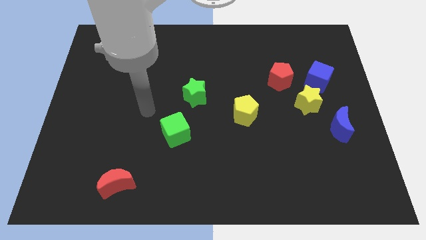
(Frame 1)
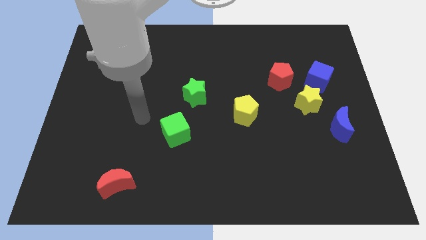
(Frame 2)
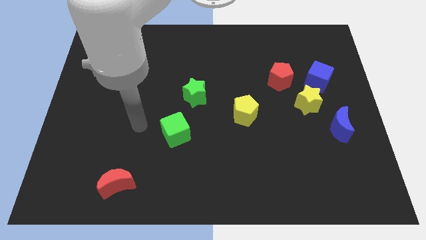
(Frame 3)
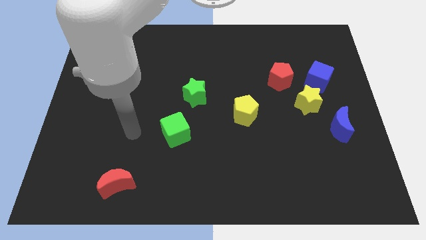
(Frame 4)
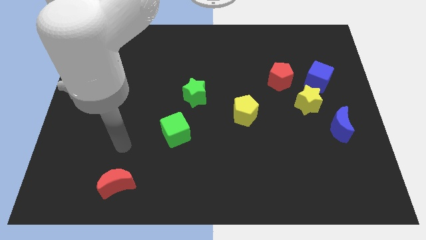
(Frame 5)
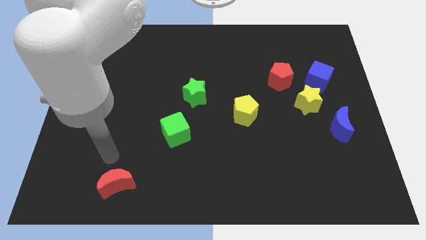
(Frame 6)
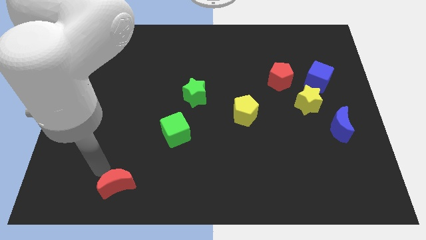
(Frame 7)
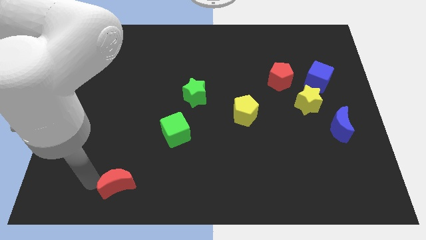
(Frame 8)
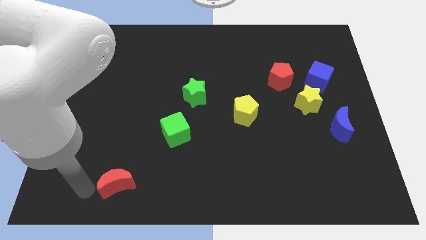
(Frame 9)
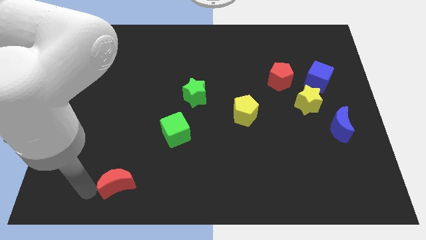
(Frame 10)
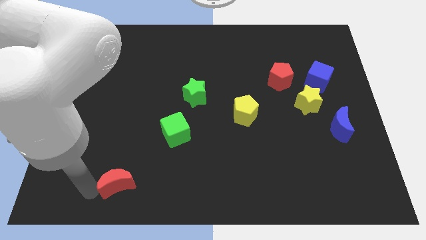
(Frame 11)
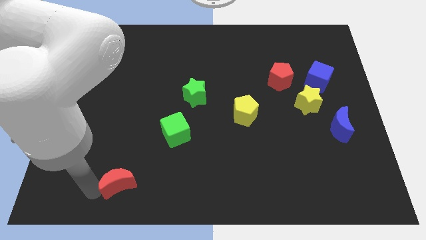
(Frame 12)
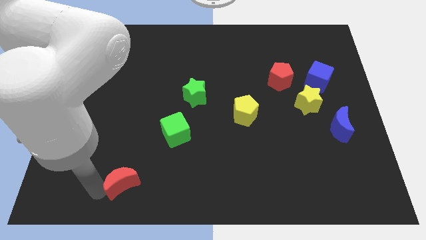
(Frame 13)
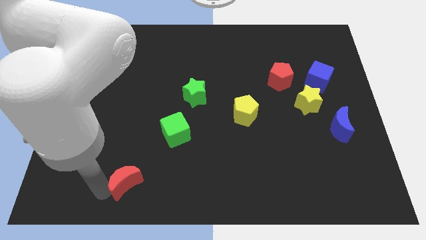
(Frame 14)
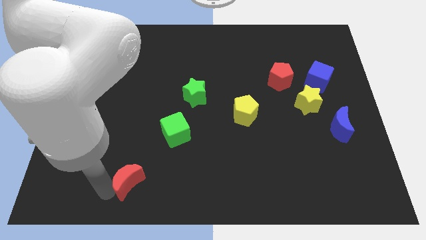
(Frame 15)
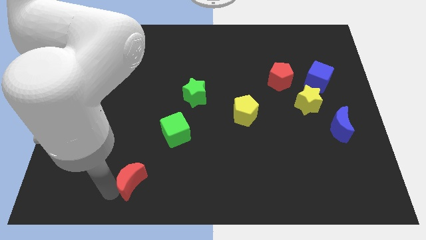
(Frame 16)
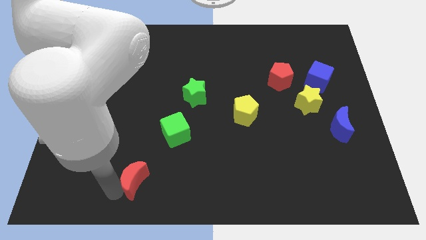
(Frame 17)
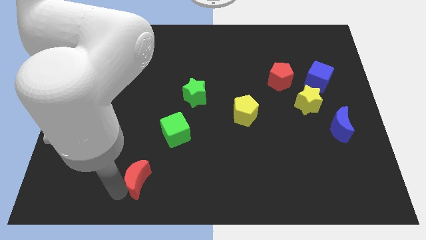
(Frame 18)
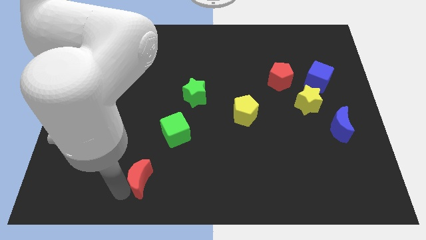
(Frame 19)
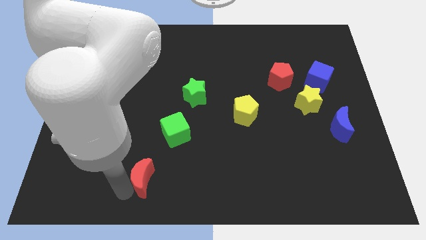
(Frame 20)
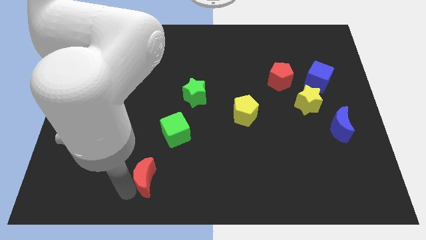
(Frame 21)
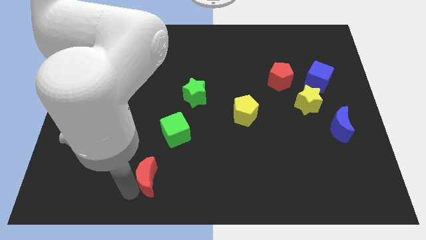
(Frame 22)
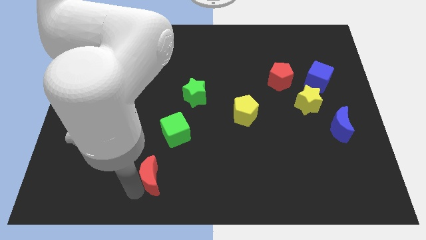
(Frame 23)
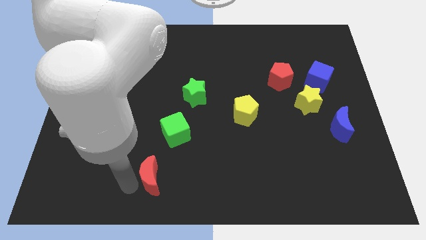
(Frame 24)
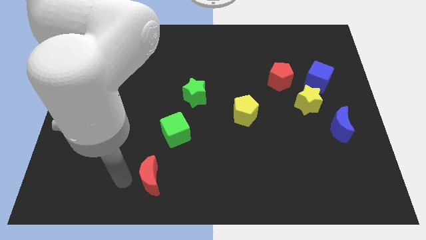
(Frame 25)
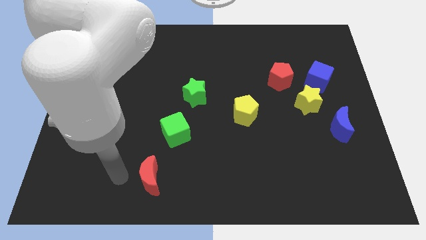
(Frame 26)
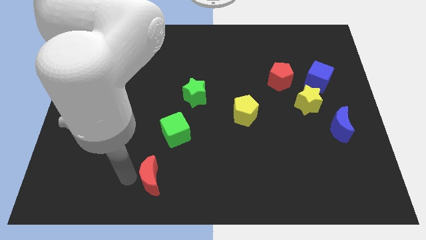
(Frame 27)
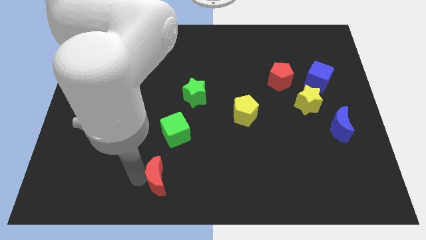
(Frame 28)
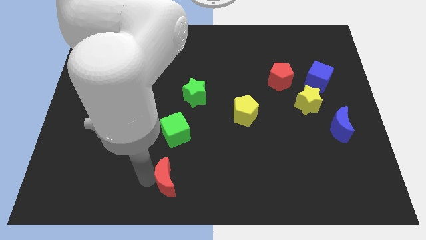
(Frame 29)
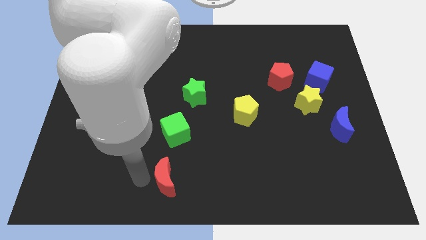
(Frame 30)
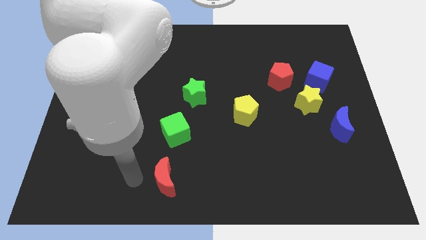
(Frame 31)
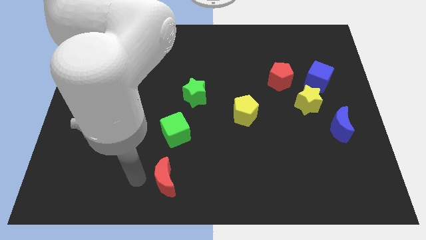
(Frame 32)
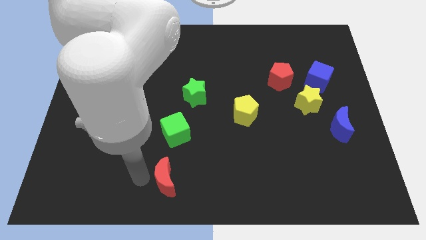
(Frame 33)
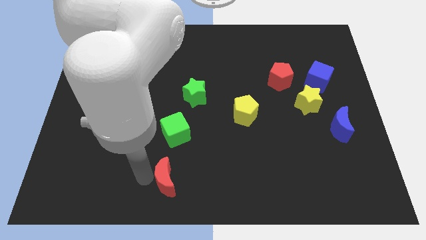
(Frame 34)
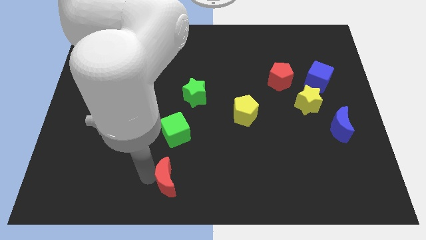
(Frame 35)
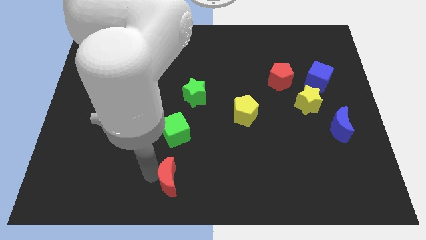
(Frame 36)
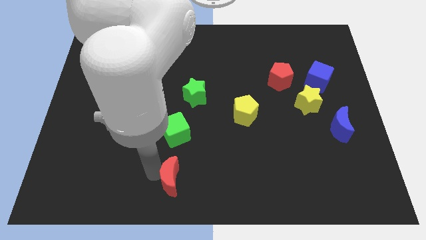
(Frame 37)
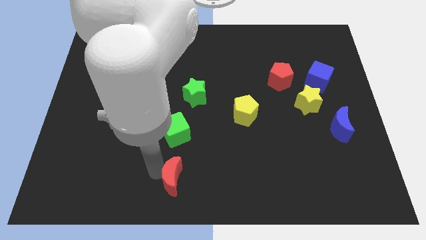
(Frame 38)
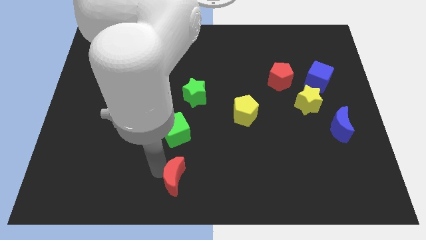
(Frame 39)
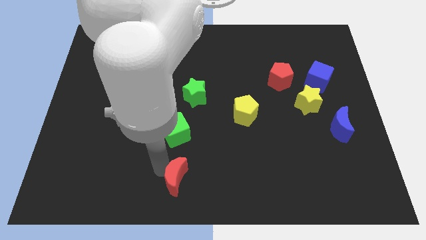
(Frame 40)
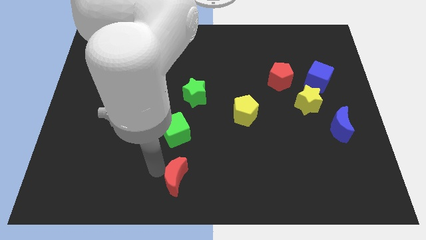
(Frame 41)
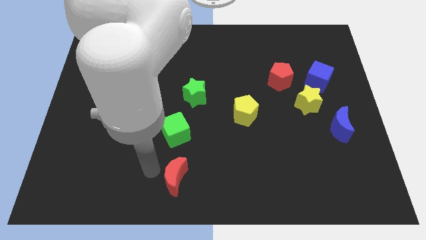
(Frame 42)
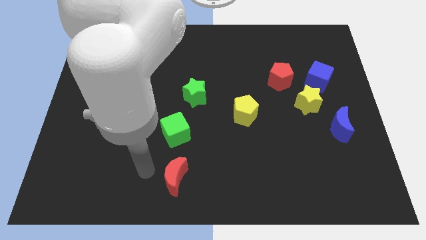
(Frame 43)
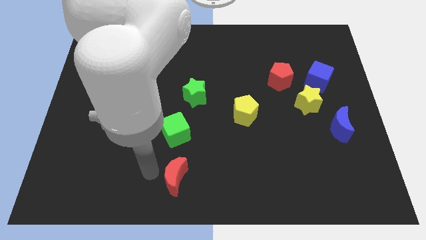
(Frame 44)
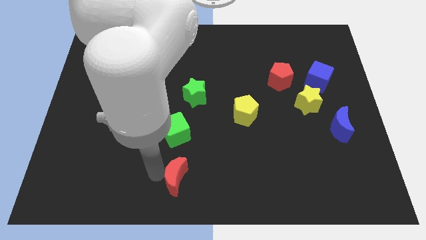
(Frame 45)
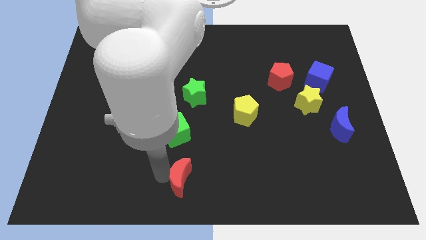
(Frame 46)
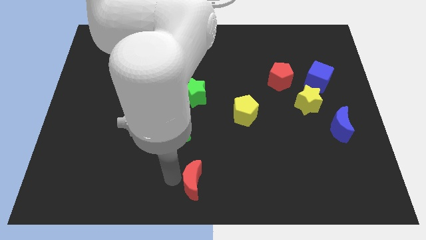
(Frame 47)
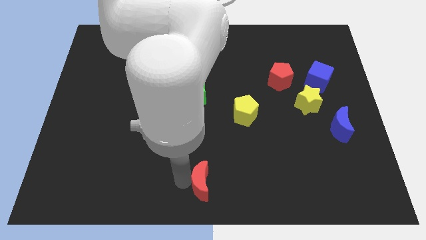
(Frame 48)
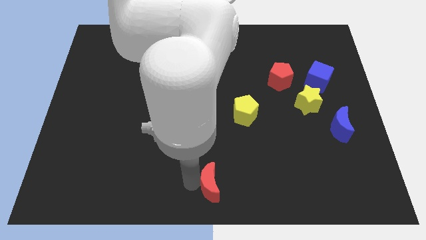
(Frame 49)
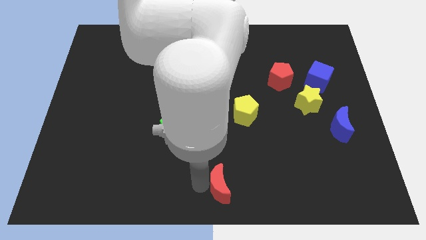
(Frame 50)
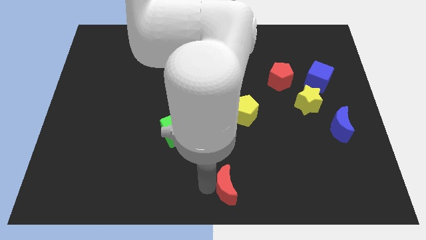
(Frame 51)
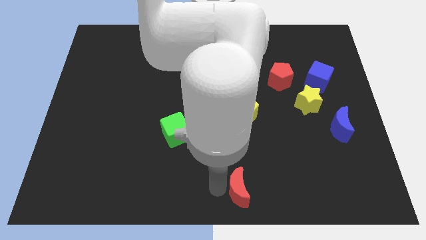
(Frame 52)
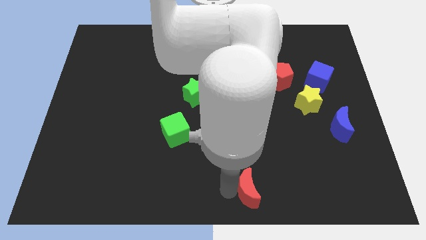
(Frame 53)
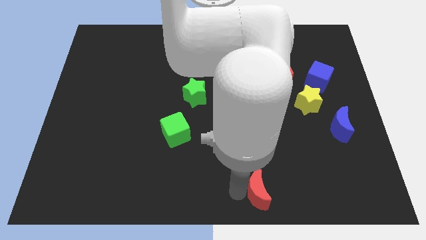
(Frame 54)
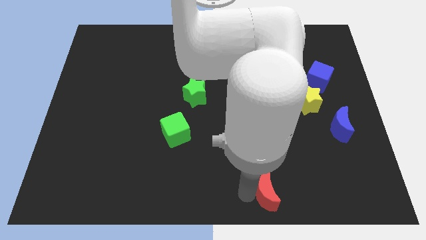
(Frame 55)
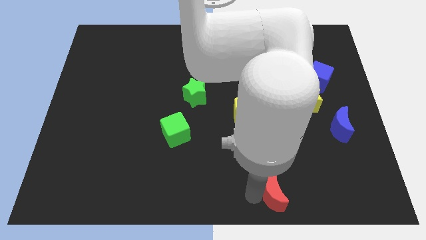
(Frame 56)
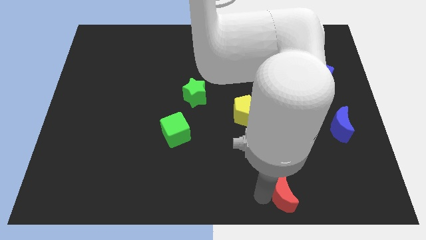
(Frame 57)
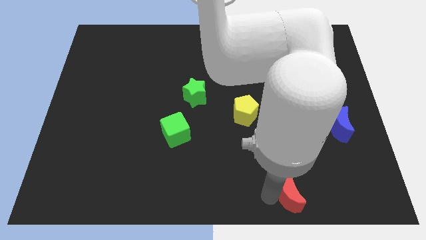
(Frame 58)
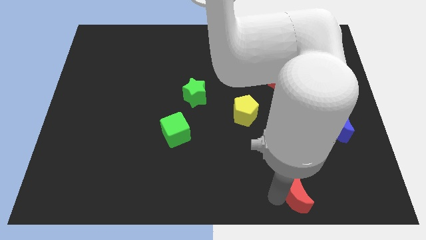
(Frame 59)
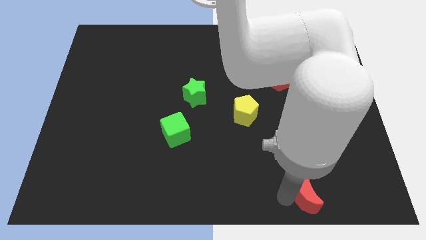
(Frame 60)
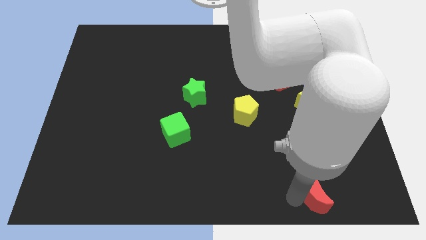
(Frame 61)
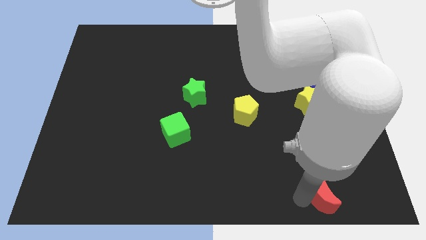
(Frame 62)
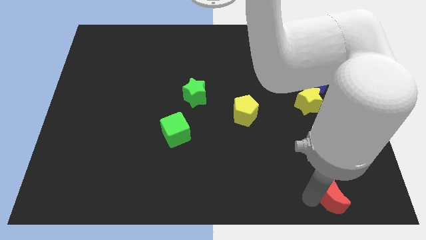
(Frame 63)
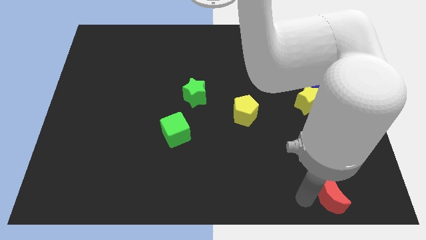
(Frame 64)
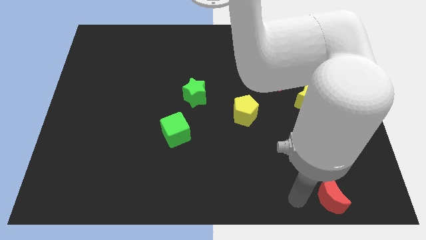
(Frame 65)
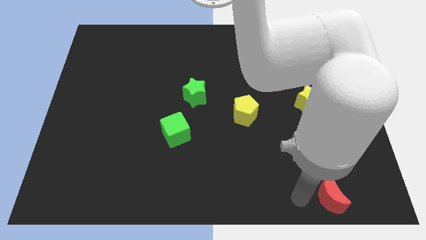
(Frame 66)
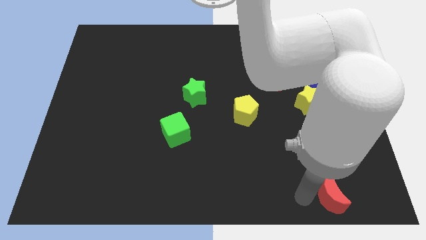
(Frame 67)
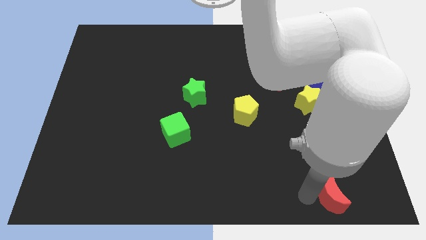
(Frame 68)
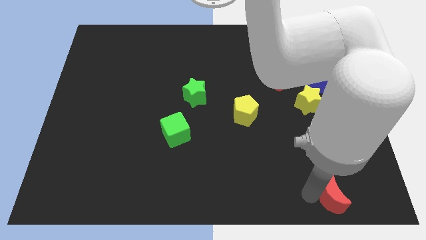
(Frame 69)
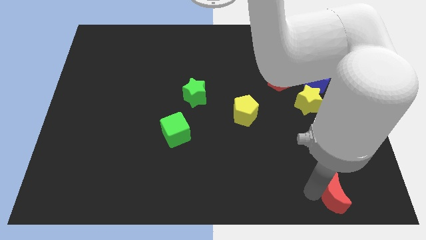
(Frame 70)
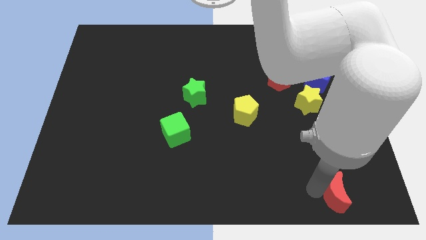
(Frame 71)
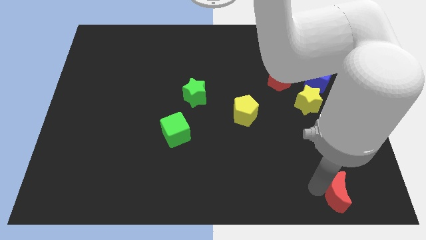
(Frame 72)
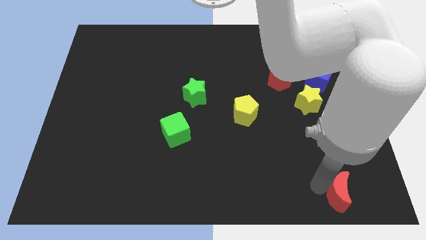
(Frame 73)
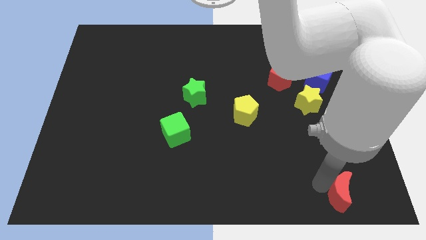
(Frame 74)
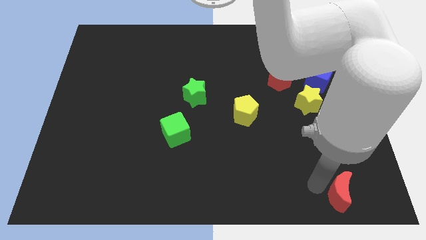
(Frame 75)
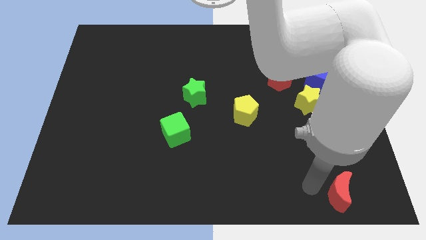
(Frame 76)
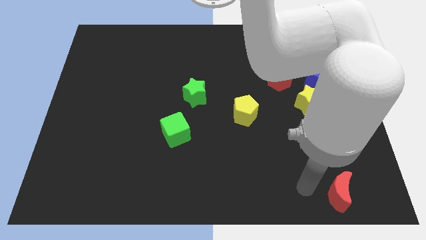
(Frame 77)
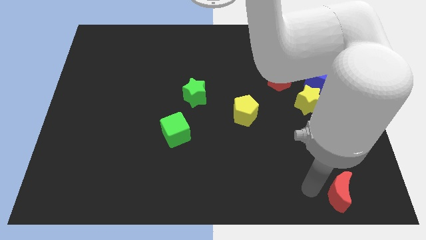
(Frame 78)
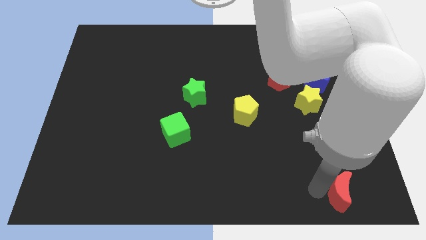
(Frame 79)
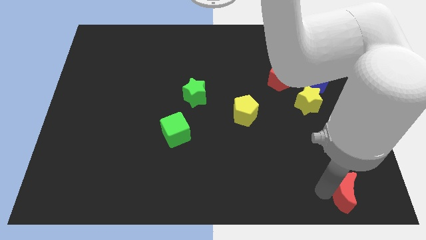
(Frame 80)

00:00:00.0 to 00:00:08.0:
push the red moon to the bottom right corner
